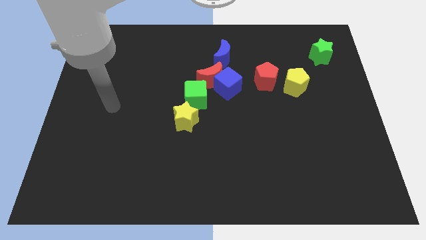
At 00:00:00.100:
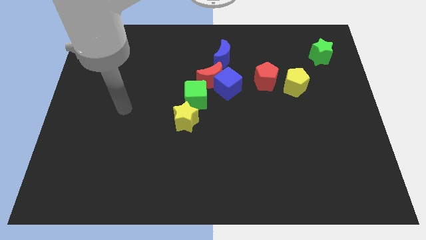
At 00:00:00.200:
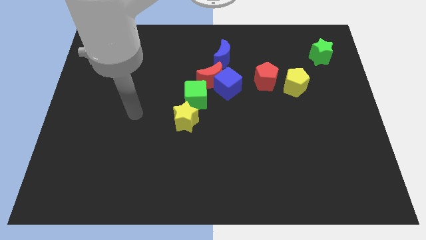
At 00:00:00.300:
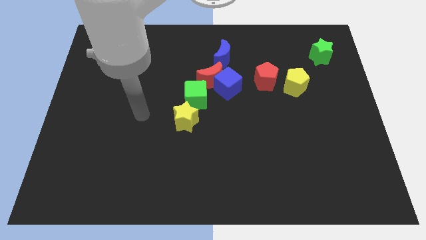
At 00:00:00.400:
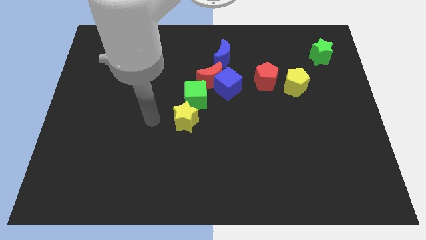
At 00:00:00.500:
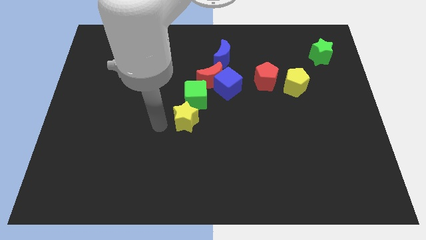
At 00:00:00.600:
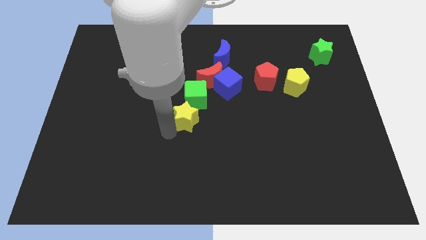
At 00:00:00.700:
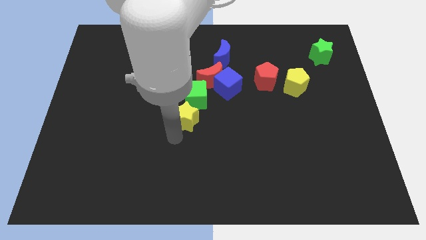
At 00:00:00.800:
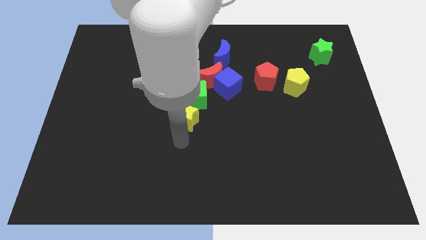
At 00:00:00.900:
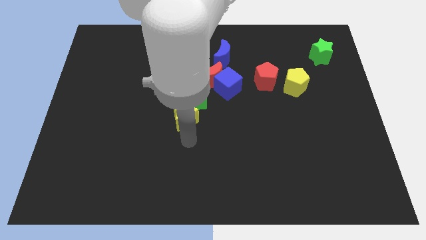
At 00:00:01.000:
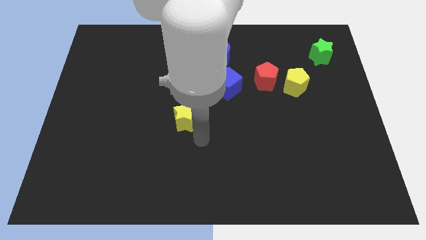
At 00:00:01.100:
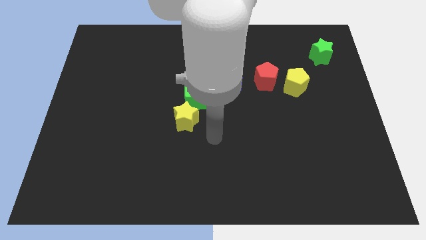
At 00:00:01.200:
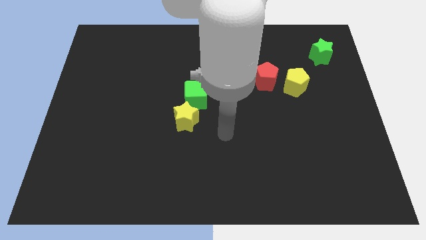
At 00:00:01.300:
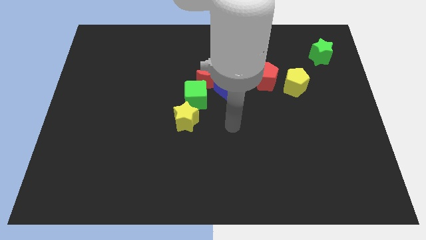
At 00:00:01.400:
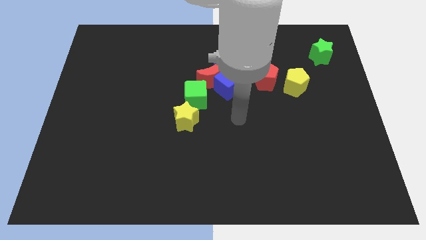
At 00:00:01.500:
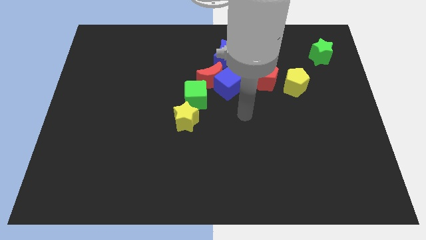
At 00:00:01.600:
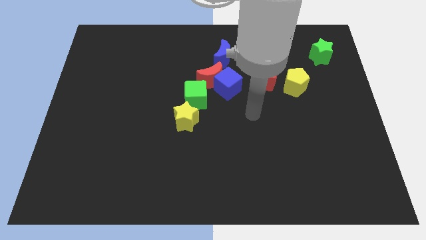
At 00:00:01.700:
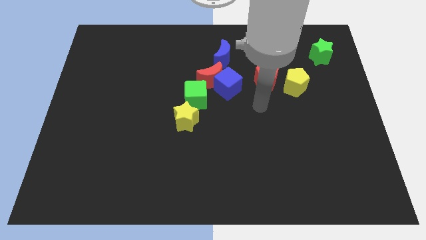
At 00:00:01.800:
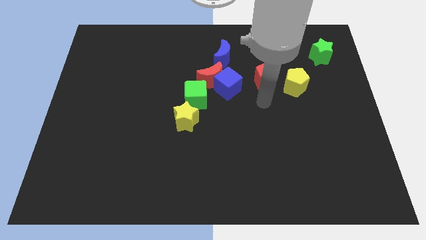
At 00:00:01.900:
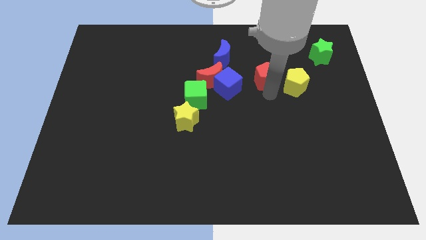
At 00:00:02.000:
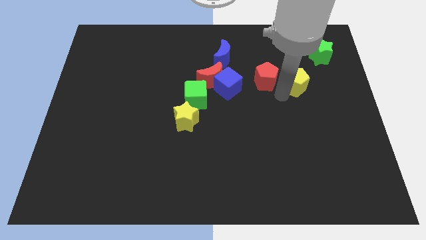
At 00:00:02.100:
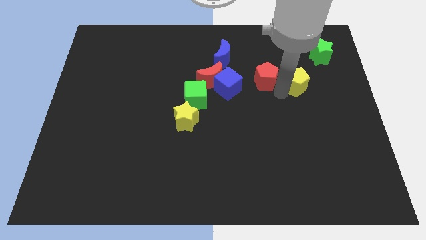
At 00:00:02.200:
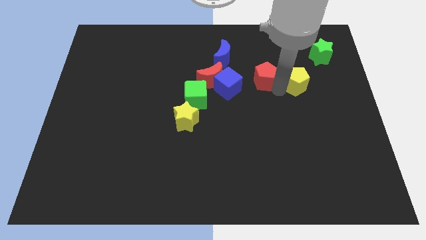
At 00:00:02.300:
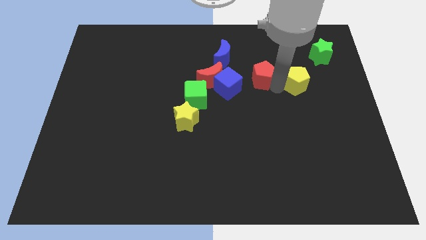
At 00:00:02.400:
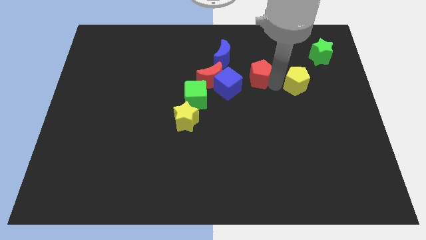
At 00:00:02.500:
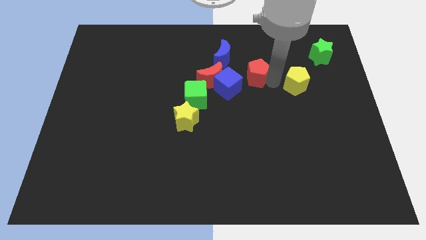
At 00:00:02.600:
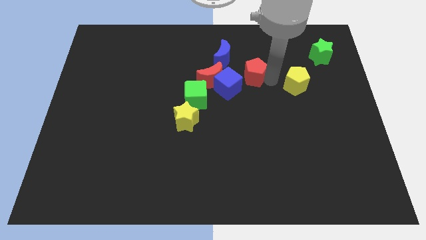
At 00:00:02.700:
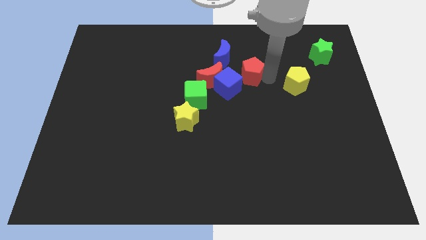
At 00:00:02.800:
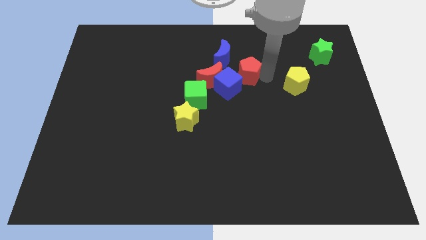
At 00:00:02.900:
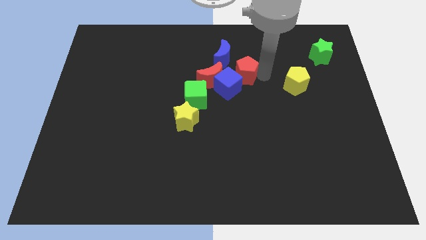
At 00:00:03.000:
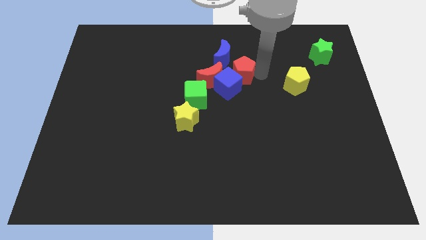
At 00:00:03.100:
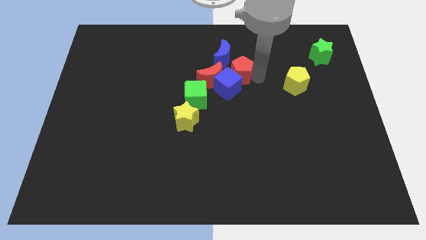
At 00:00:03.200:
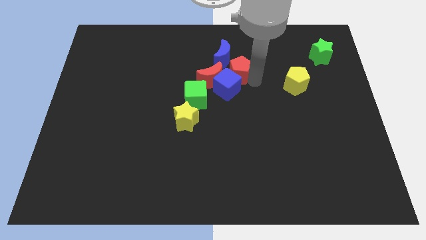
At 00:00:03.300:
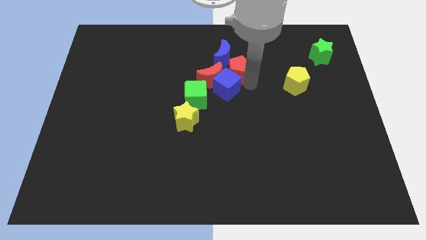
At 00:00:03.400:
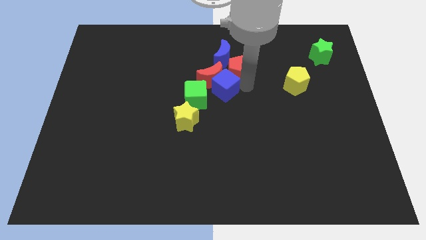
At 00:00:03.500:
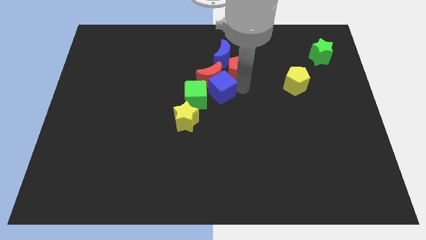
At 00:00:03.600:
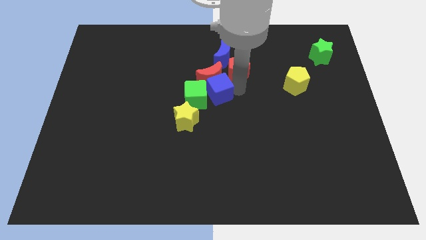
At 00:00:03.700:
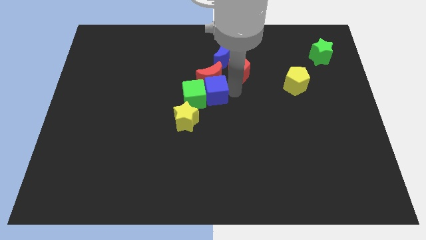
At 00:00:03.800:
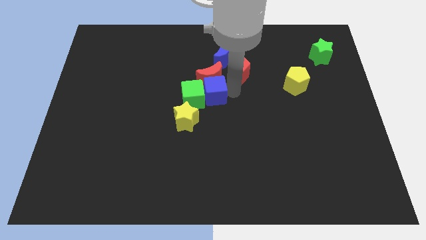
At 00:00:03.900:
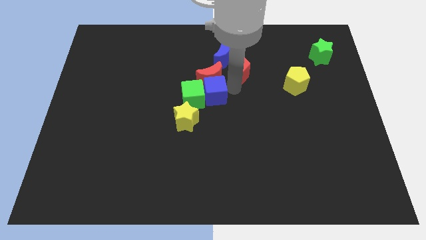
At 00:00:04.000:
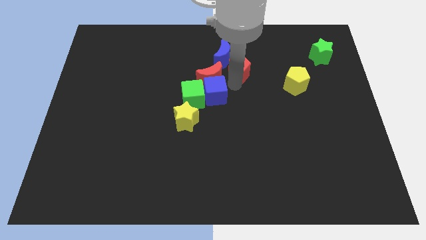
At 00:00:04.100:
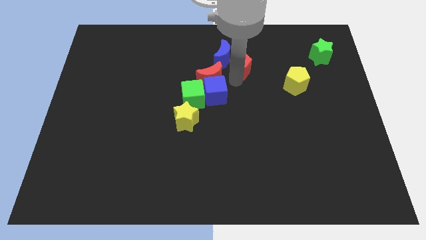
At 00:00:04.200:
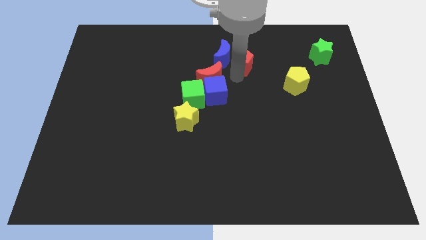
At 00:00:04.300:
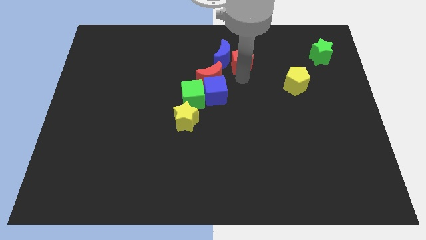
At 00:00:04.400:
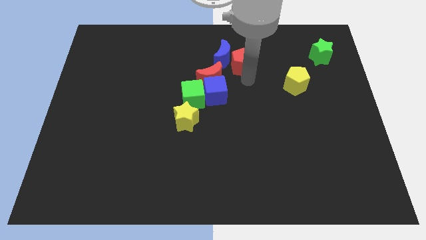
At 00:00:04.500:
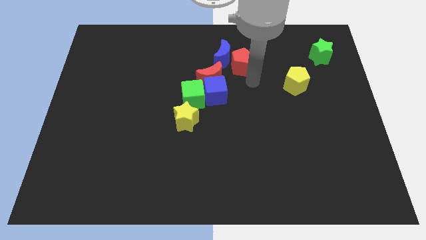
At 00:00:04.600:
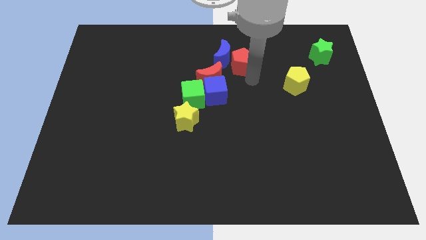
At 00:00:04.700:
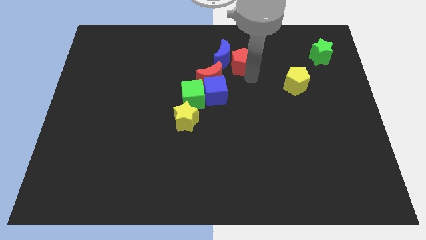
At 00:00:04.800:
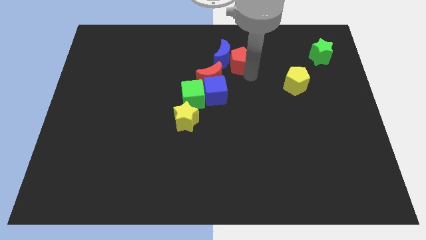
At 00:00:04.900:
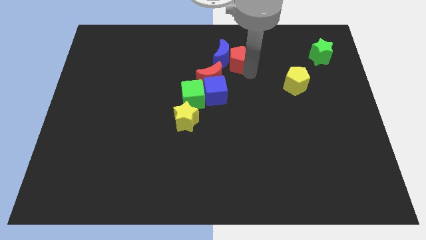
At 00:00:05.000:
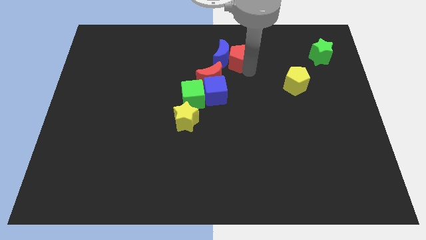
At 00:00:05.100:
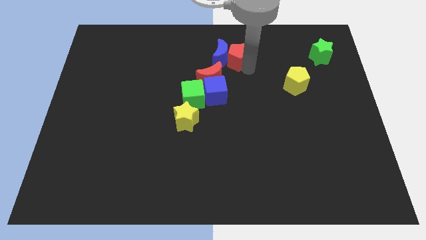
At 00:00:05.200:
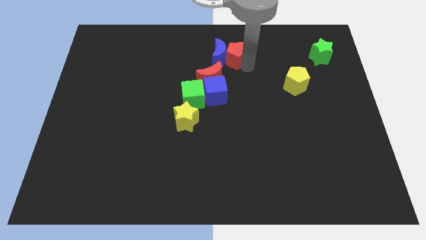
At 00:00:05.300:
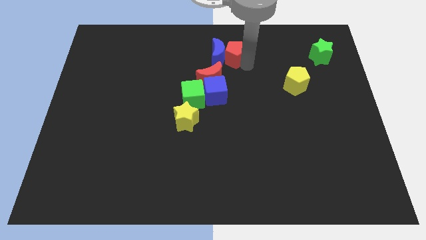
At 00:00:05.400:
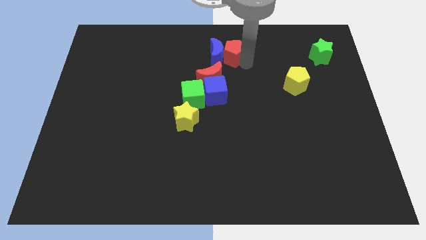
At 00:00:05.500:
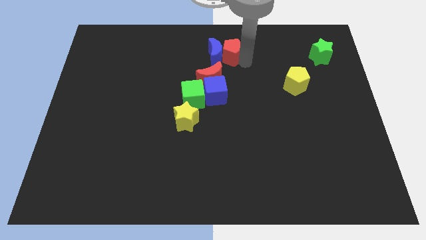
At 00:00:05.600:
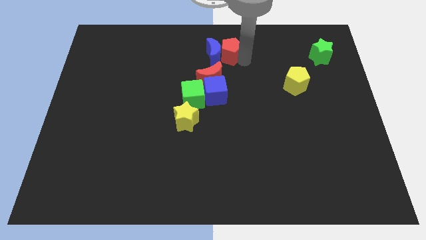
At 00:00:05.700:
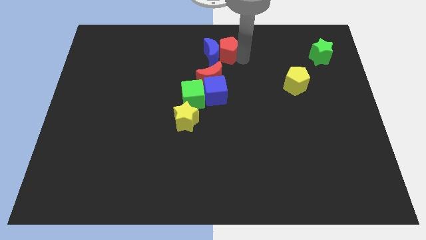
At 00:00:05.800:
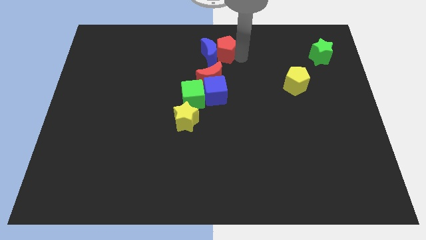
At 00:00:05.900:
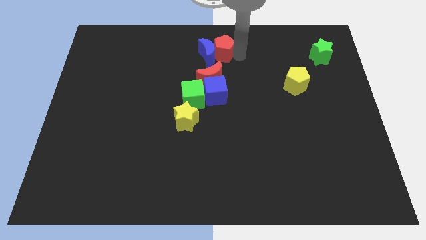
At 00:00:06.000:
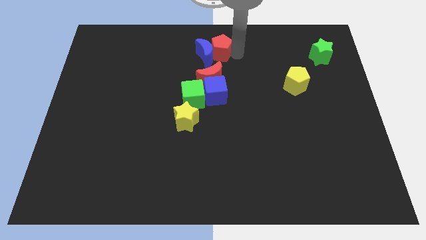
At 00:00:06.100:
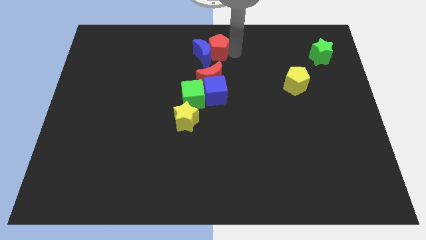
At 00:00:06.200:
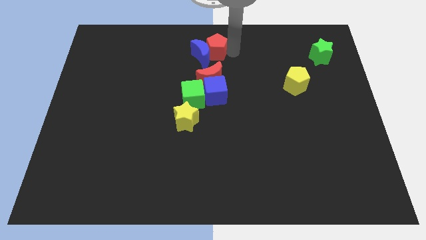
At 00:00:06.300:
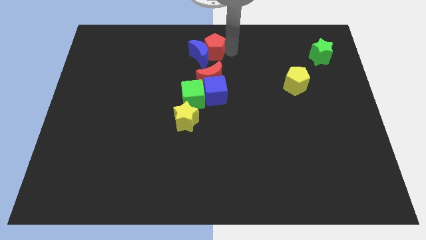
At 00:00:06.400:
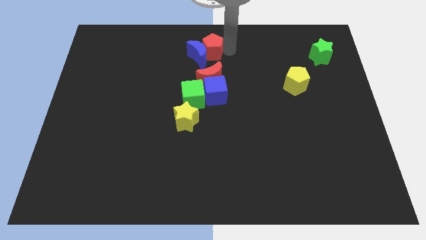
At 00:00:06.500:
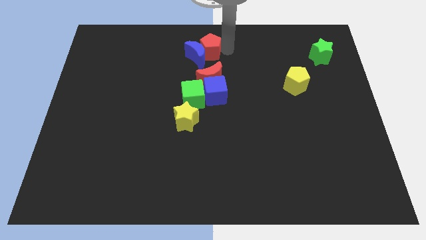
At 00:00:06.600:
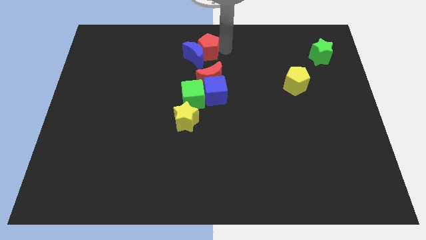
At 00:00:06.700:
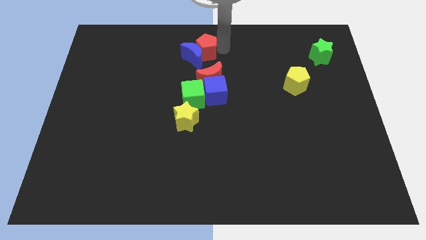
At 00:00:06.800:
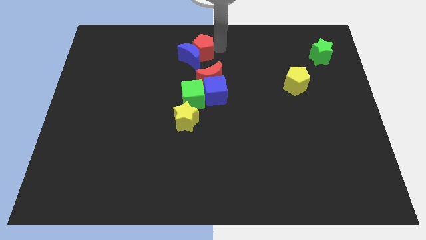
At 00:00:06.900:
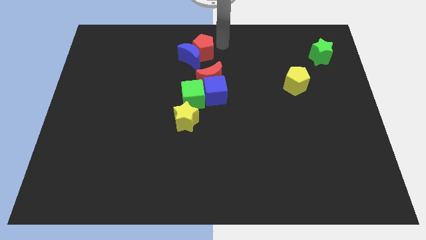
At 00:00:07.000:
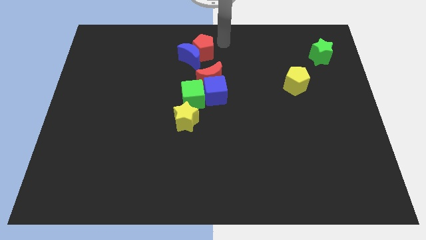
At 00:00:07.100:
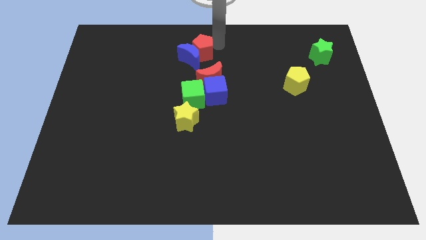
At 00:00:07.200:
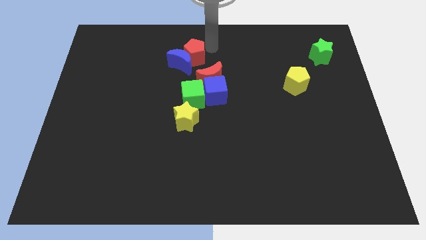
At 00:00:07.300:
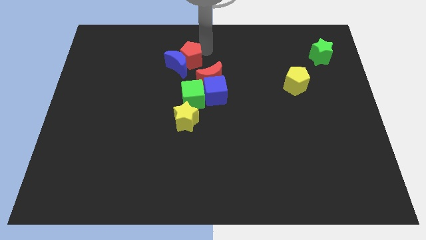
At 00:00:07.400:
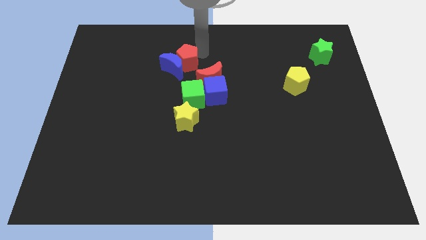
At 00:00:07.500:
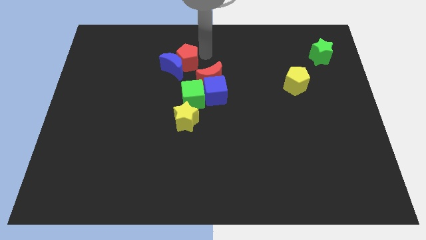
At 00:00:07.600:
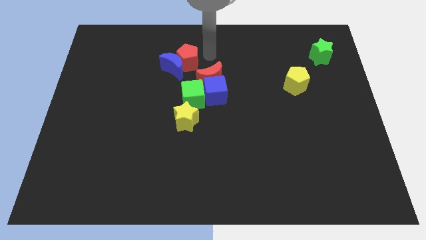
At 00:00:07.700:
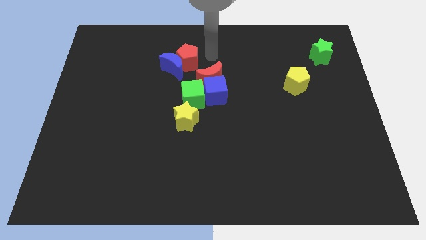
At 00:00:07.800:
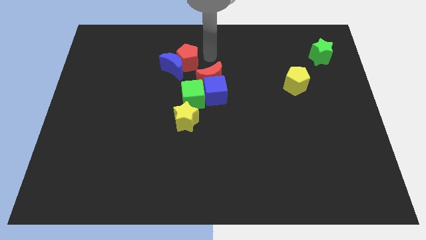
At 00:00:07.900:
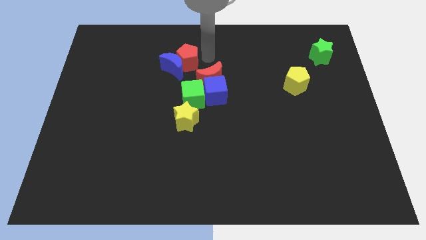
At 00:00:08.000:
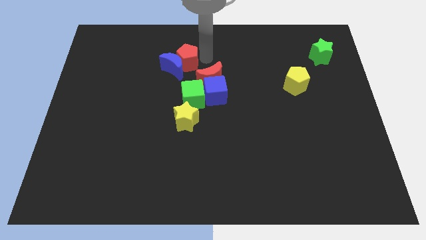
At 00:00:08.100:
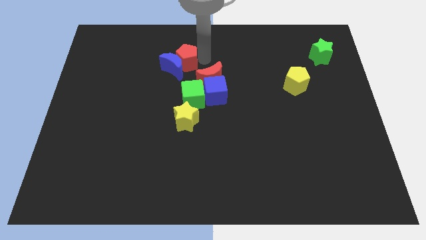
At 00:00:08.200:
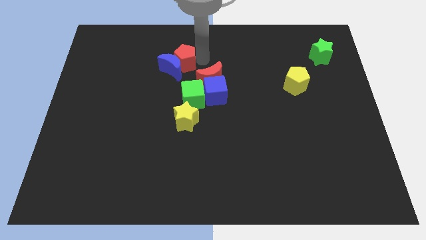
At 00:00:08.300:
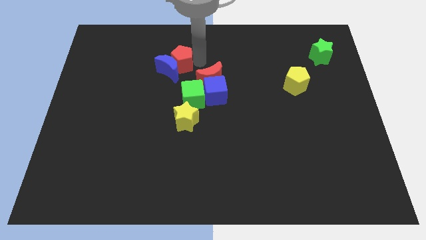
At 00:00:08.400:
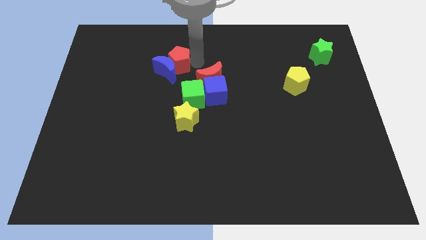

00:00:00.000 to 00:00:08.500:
move the red pentagon to the left
